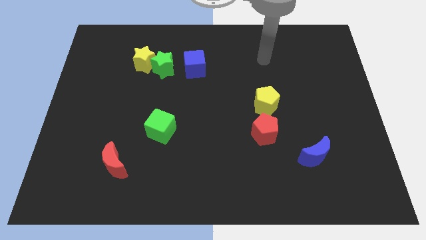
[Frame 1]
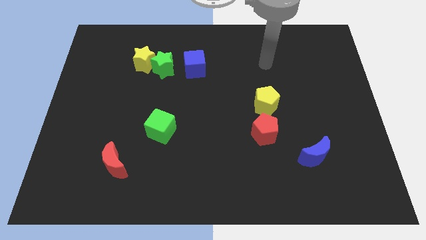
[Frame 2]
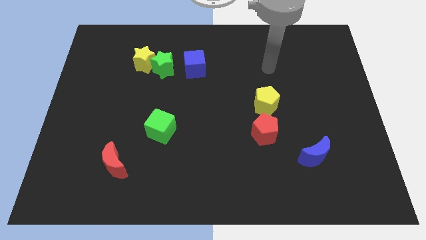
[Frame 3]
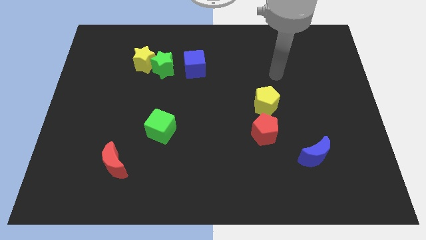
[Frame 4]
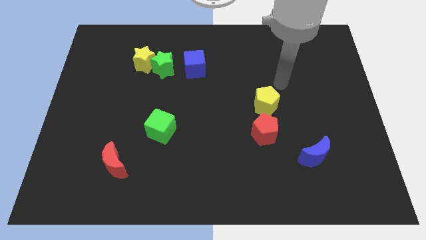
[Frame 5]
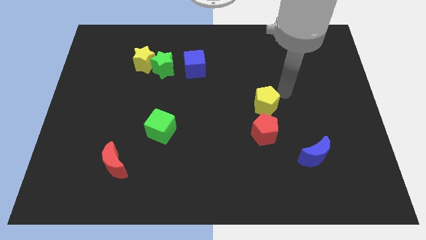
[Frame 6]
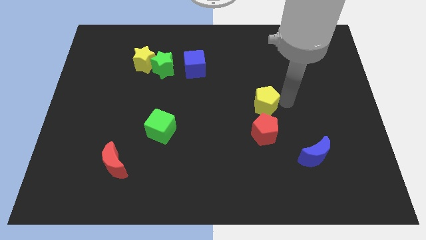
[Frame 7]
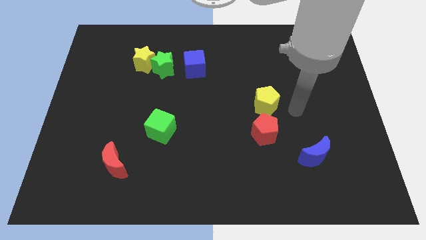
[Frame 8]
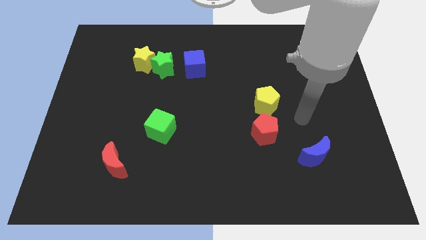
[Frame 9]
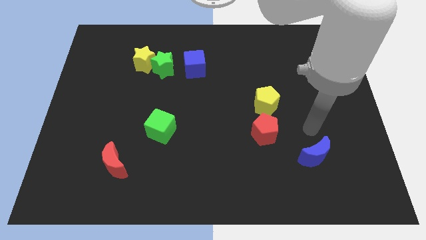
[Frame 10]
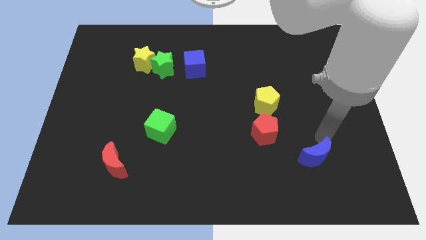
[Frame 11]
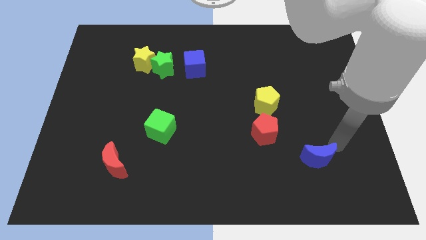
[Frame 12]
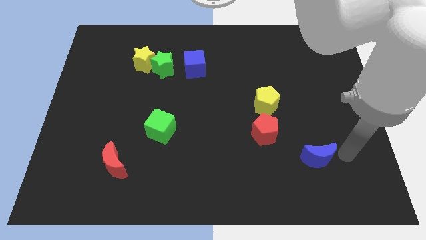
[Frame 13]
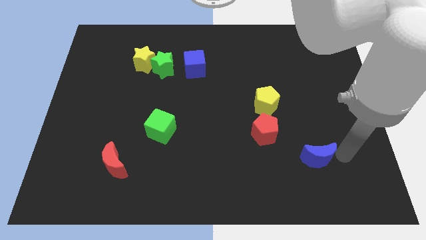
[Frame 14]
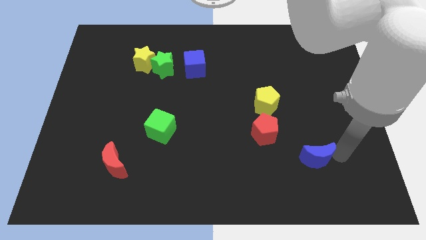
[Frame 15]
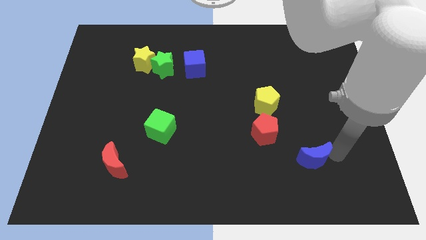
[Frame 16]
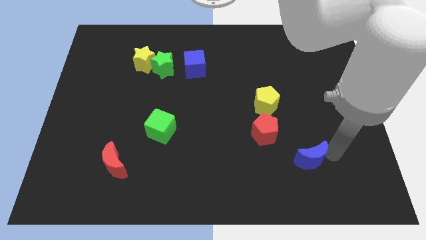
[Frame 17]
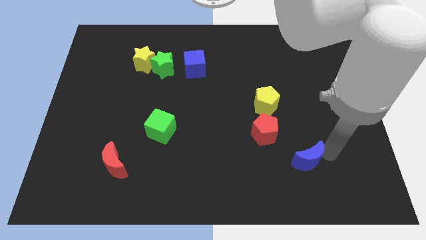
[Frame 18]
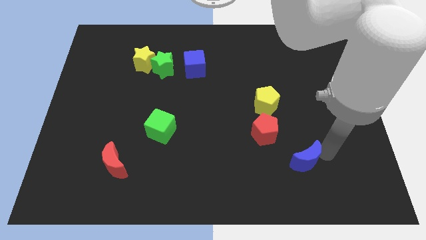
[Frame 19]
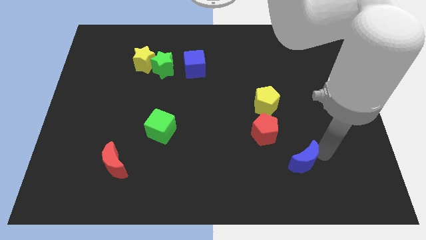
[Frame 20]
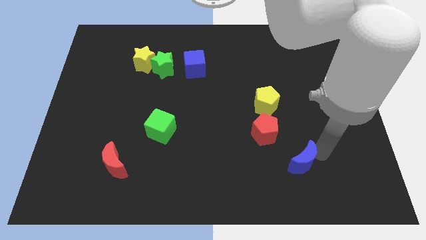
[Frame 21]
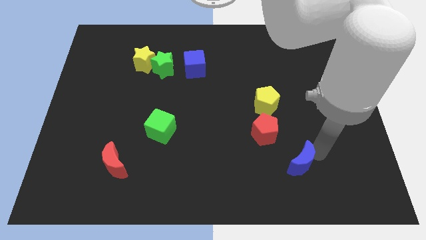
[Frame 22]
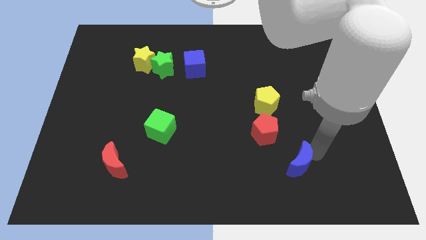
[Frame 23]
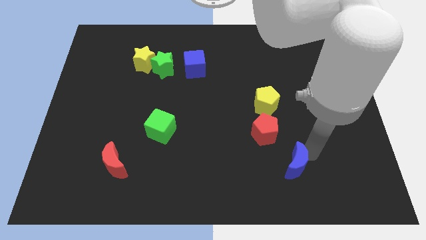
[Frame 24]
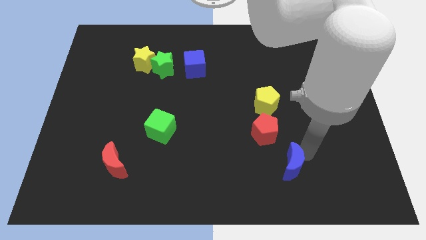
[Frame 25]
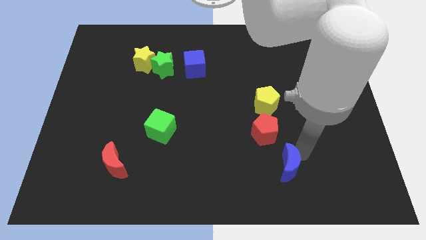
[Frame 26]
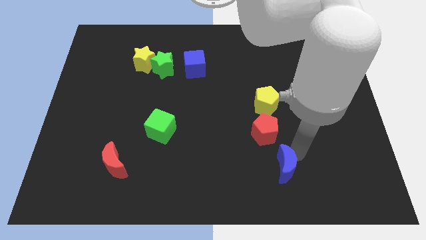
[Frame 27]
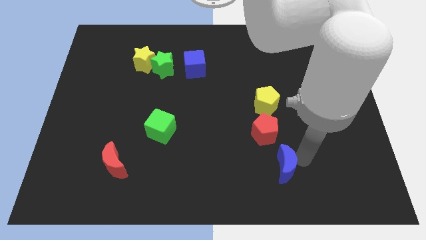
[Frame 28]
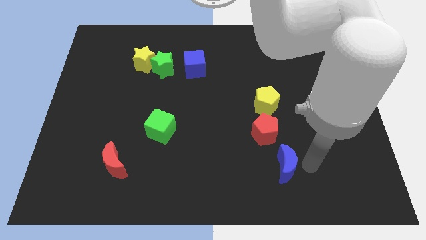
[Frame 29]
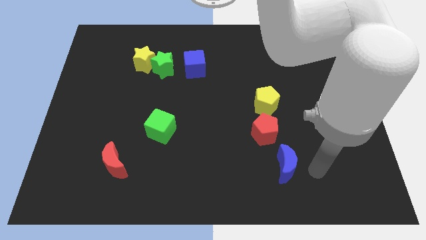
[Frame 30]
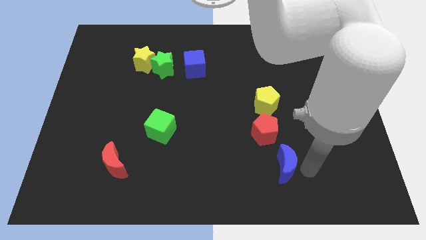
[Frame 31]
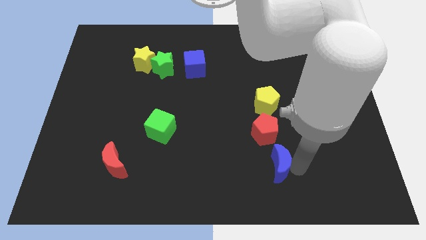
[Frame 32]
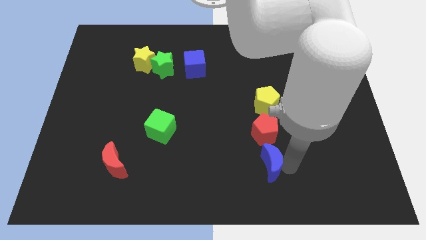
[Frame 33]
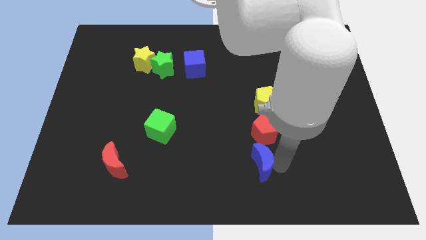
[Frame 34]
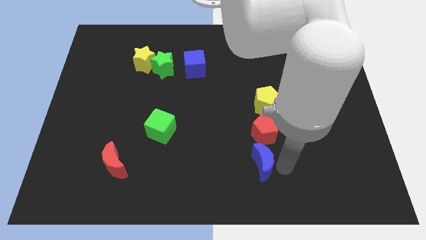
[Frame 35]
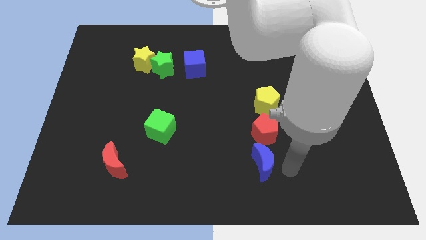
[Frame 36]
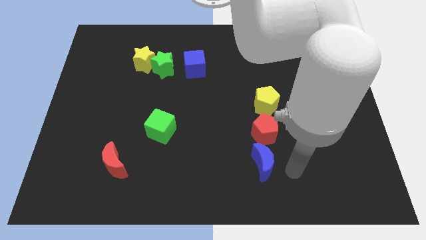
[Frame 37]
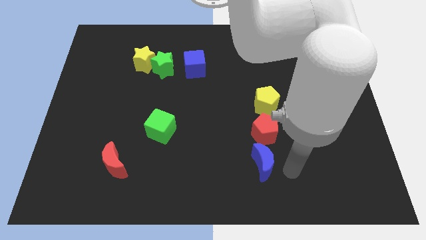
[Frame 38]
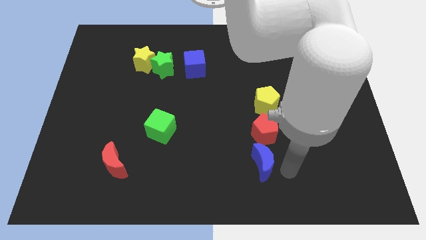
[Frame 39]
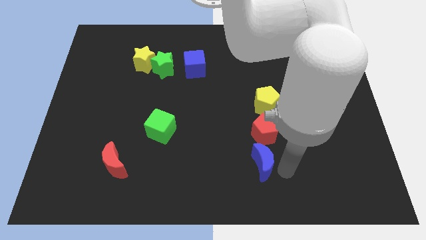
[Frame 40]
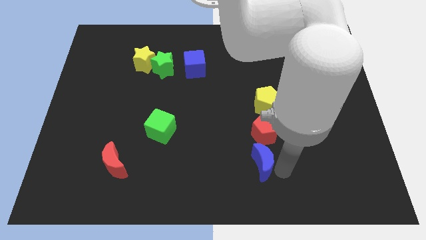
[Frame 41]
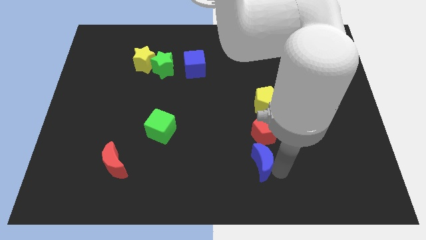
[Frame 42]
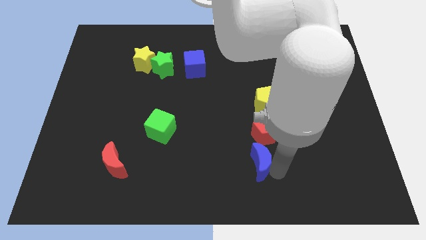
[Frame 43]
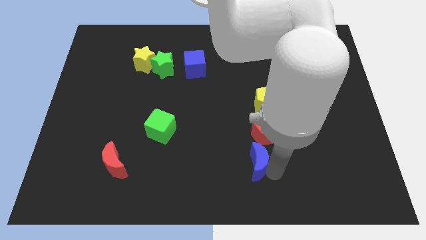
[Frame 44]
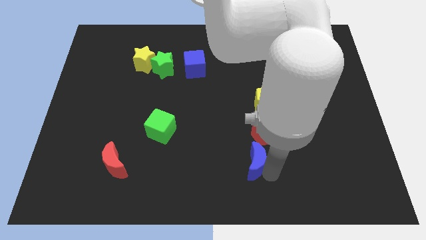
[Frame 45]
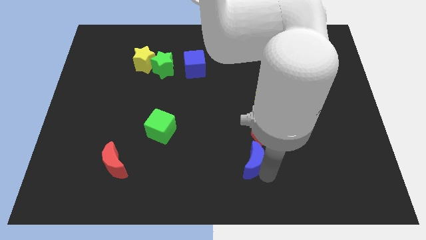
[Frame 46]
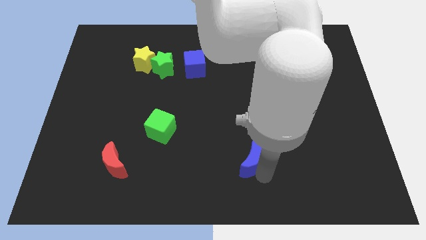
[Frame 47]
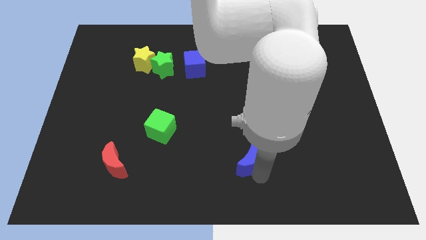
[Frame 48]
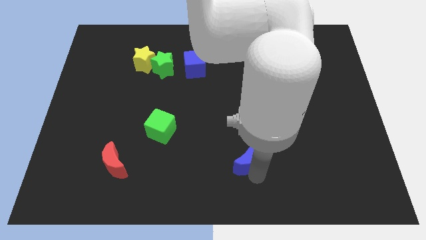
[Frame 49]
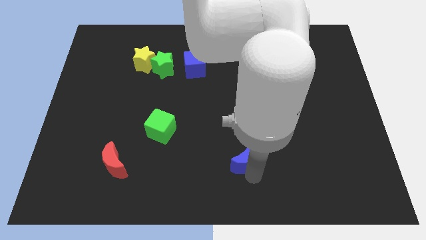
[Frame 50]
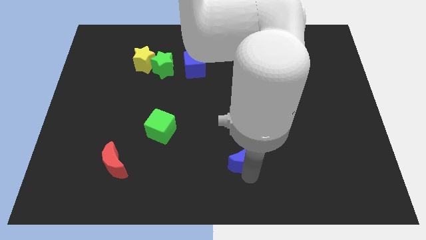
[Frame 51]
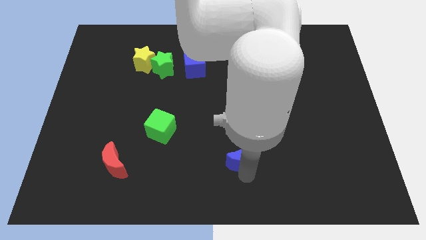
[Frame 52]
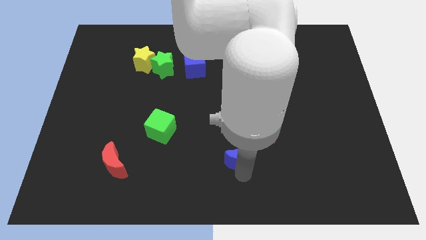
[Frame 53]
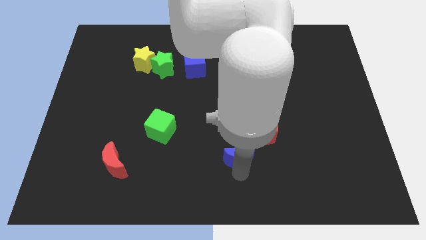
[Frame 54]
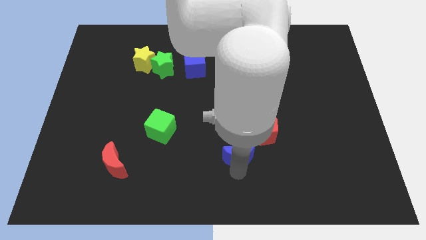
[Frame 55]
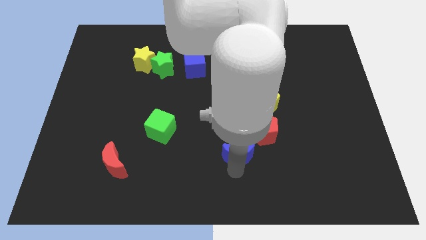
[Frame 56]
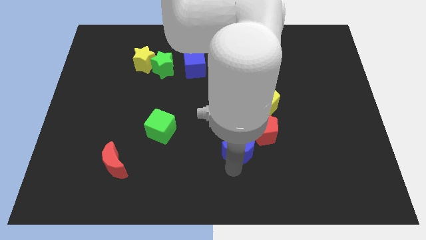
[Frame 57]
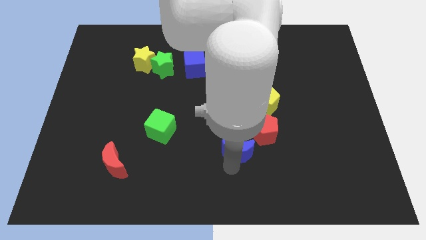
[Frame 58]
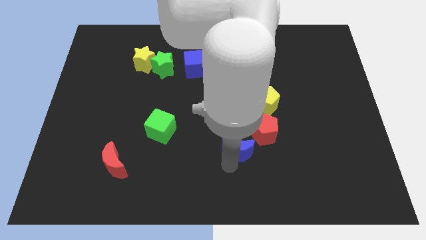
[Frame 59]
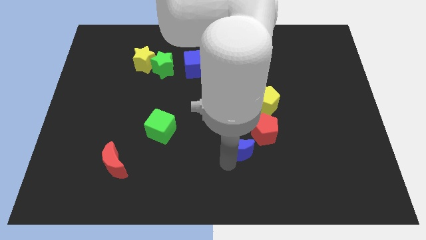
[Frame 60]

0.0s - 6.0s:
push the blue moon upwards and left somewhat

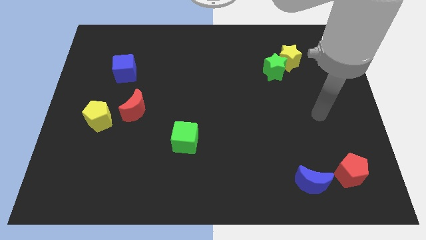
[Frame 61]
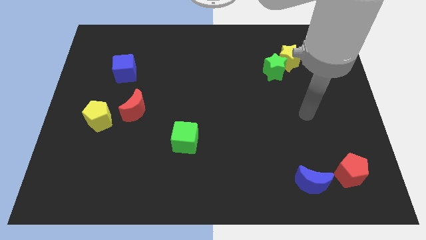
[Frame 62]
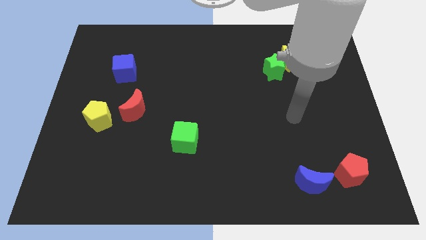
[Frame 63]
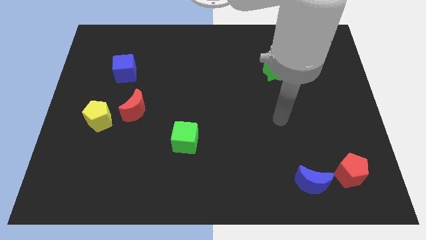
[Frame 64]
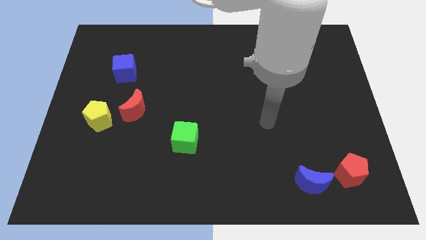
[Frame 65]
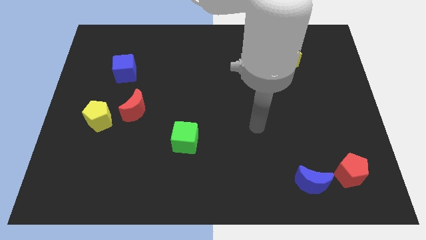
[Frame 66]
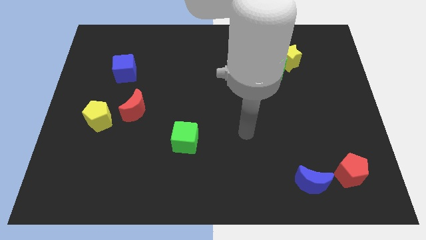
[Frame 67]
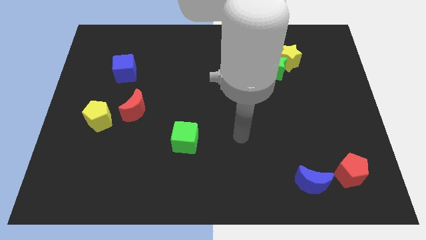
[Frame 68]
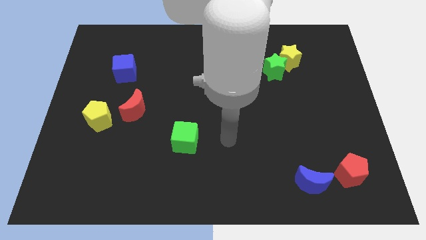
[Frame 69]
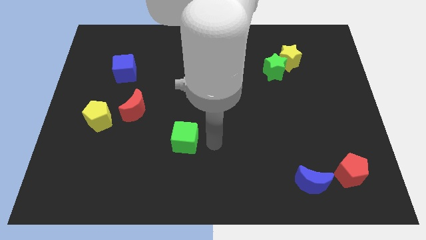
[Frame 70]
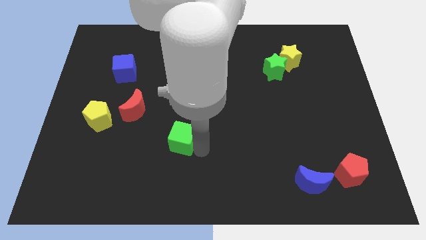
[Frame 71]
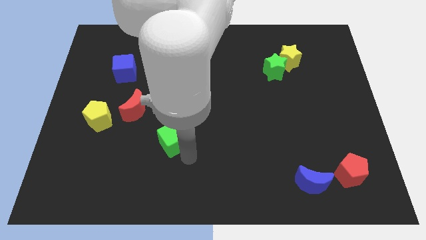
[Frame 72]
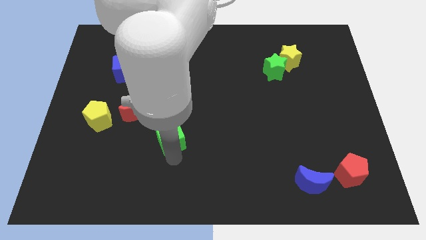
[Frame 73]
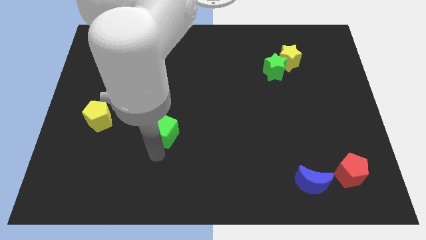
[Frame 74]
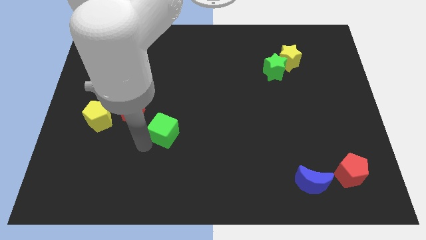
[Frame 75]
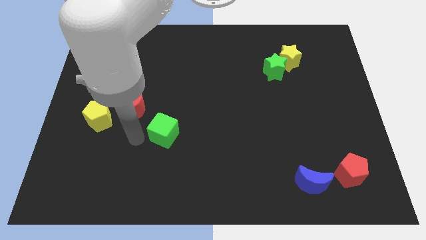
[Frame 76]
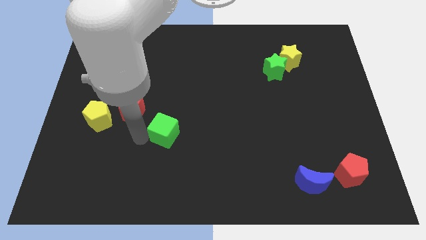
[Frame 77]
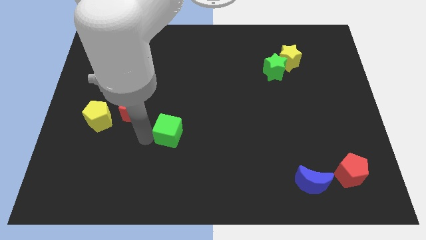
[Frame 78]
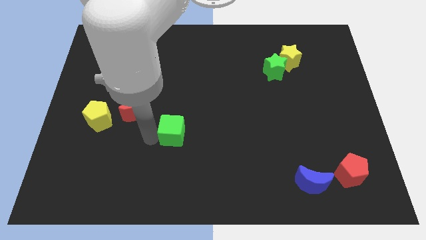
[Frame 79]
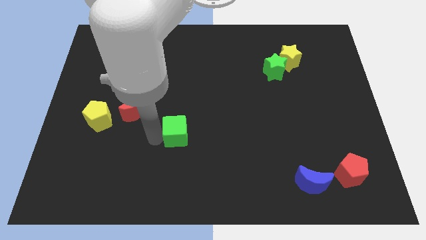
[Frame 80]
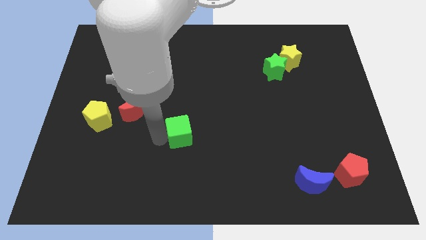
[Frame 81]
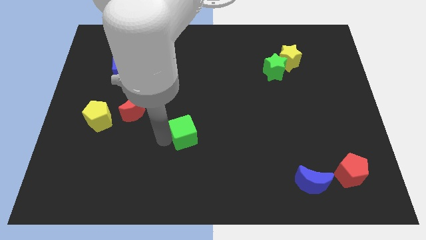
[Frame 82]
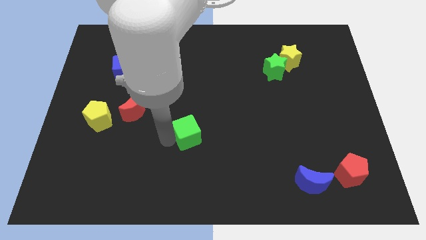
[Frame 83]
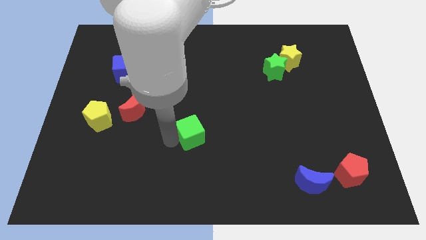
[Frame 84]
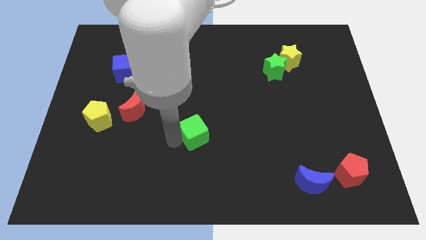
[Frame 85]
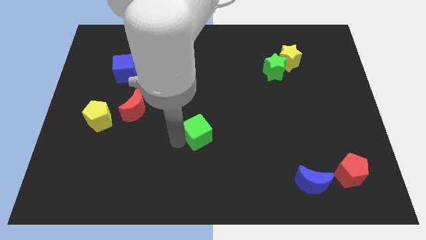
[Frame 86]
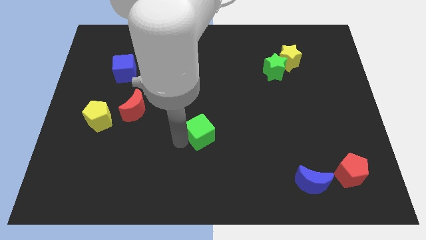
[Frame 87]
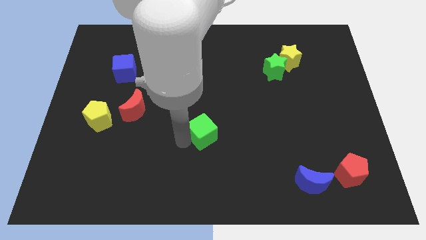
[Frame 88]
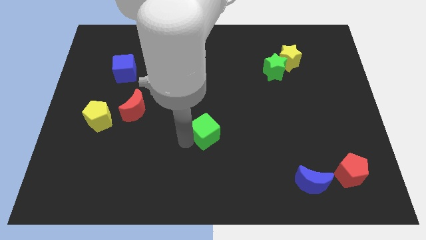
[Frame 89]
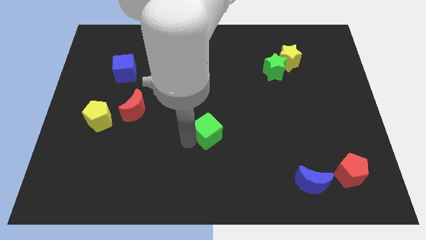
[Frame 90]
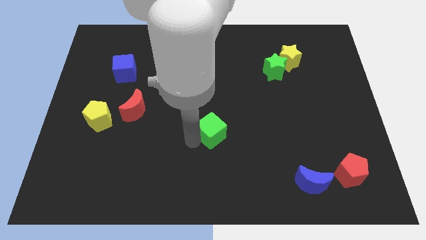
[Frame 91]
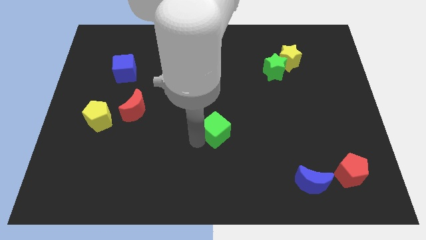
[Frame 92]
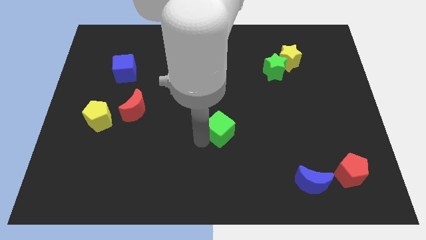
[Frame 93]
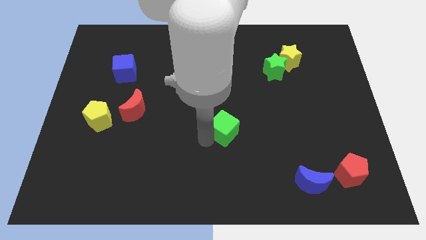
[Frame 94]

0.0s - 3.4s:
move the green cube slightly diagonally upwards and right
